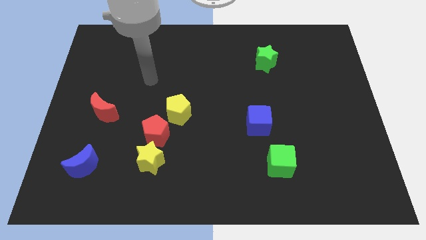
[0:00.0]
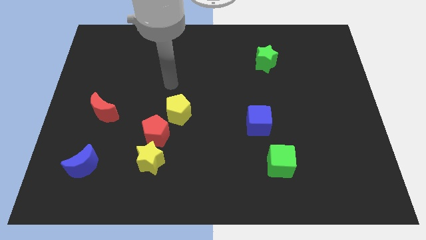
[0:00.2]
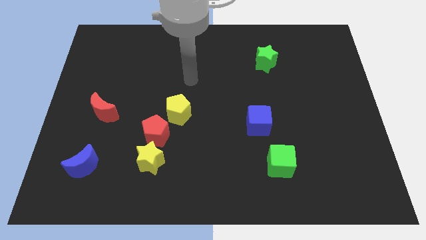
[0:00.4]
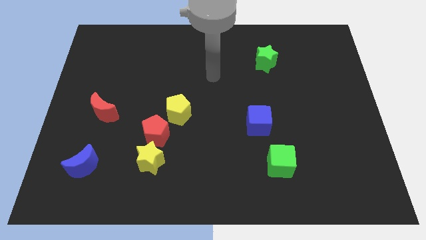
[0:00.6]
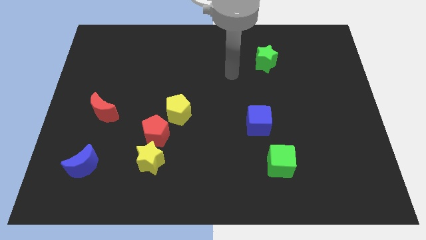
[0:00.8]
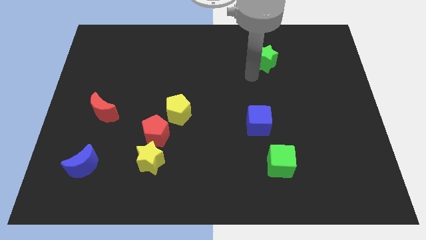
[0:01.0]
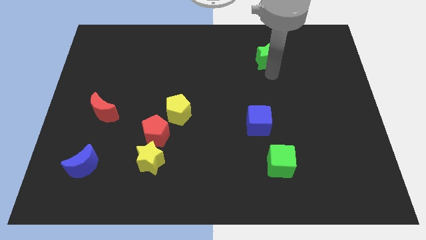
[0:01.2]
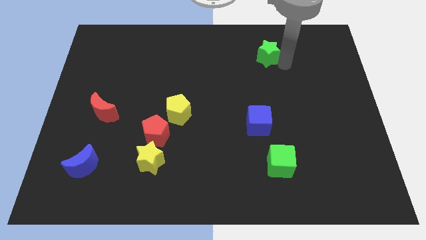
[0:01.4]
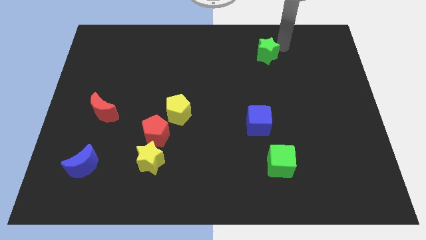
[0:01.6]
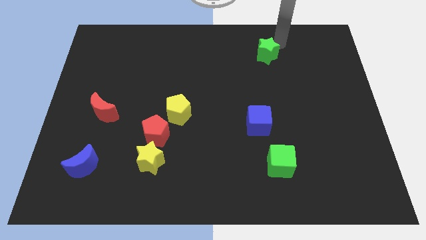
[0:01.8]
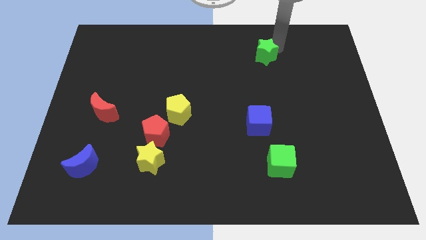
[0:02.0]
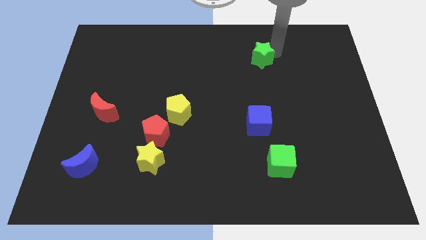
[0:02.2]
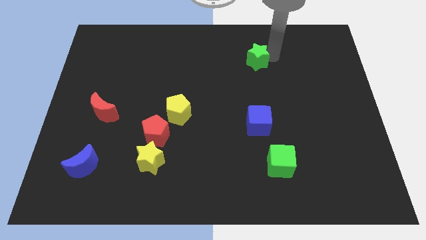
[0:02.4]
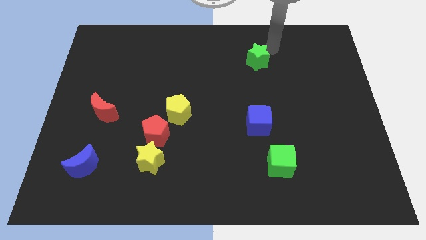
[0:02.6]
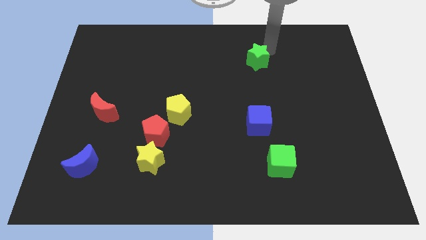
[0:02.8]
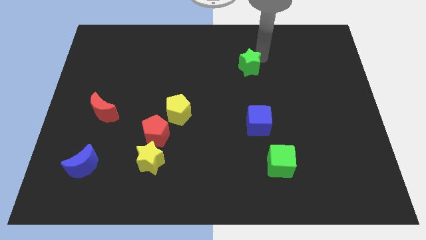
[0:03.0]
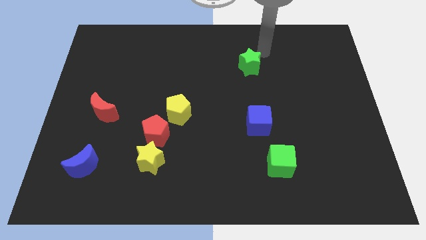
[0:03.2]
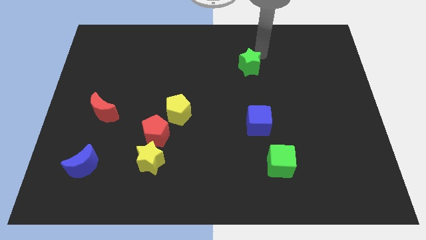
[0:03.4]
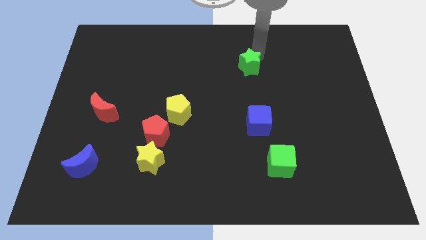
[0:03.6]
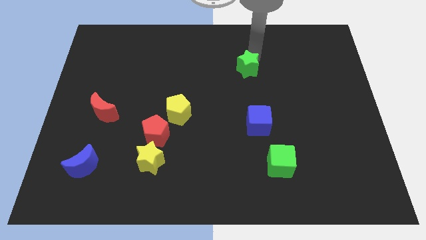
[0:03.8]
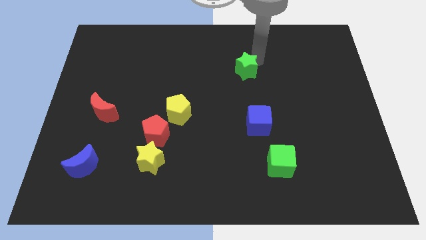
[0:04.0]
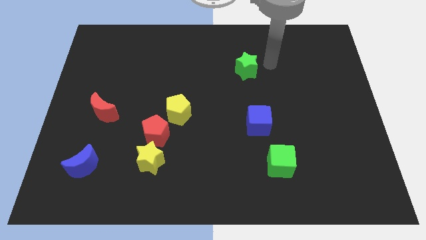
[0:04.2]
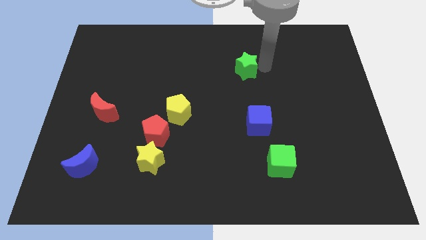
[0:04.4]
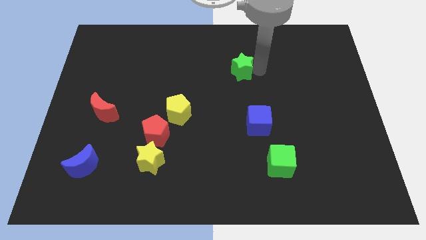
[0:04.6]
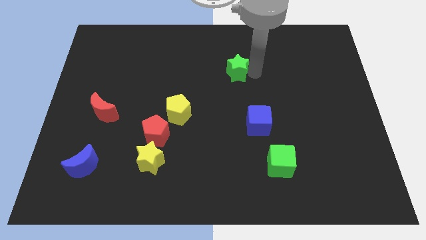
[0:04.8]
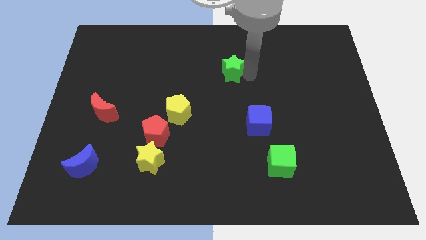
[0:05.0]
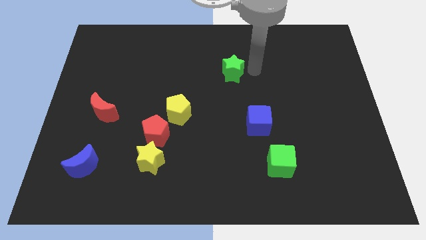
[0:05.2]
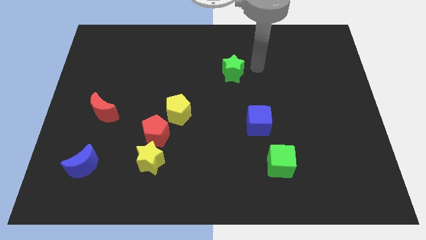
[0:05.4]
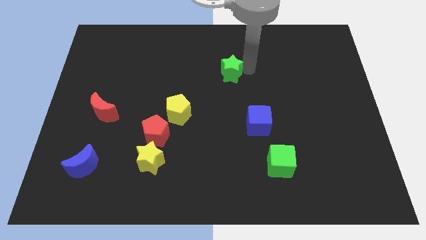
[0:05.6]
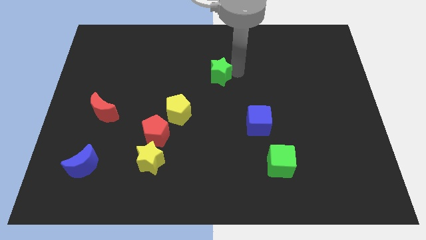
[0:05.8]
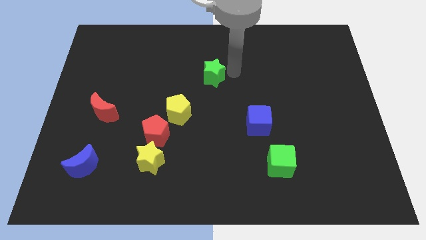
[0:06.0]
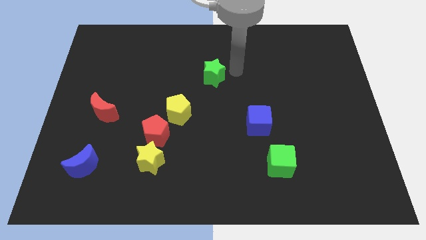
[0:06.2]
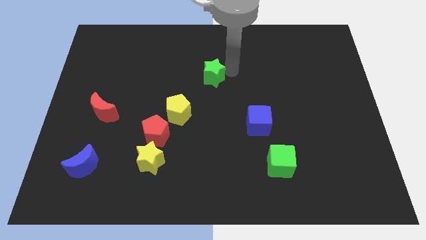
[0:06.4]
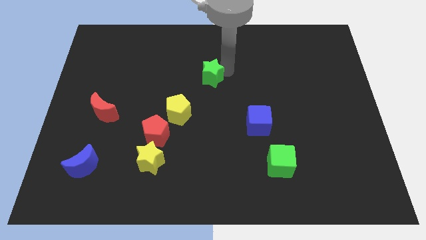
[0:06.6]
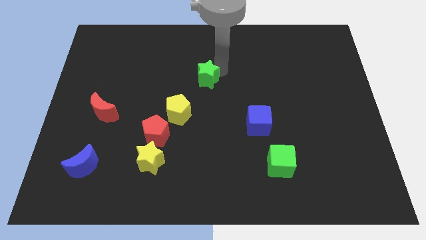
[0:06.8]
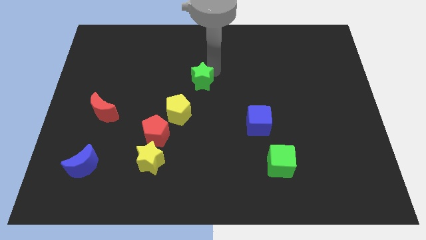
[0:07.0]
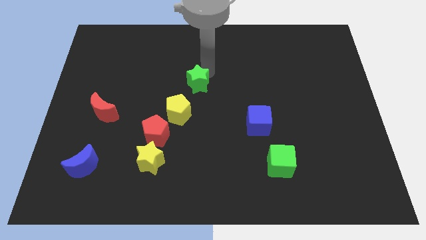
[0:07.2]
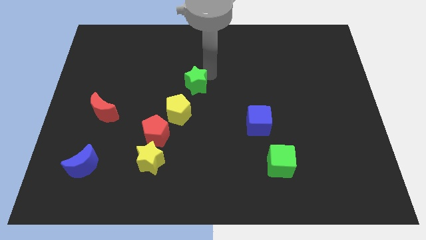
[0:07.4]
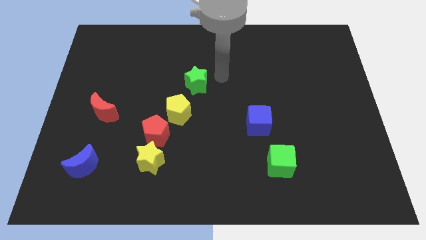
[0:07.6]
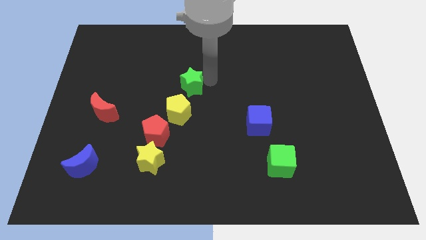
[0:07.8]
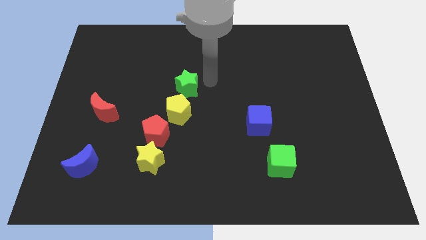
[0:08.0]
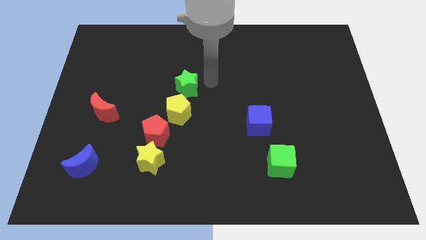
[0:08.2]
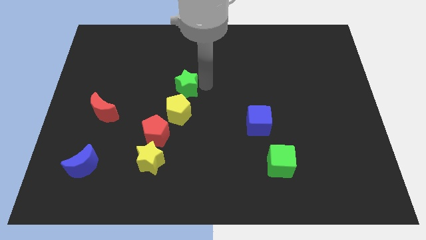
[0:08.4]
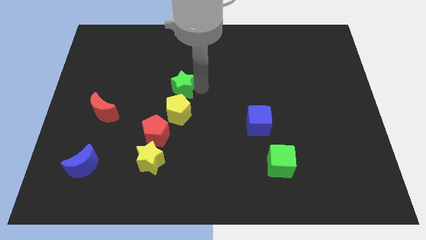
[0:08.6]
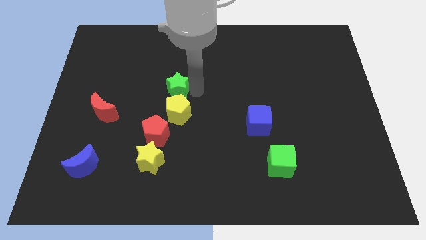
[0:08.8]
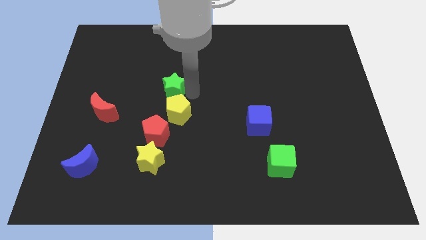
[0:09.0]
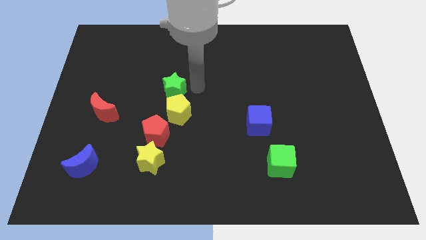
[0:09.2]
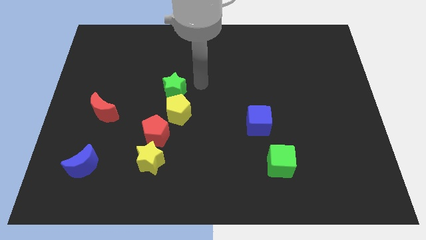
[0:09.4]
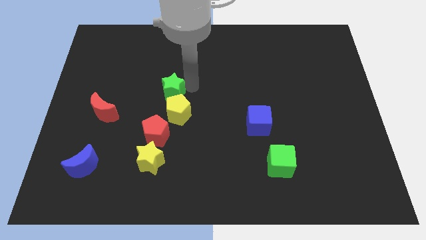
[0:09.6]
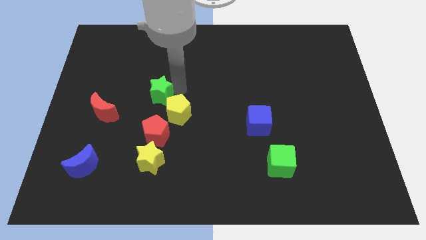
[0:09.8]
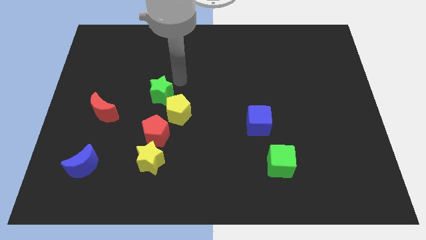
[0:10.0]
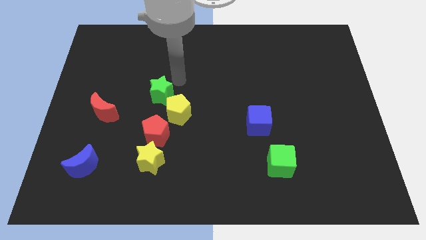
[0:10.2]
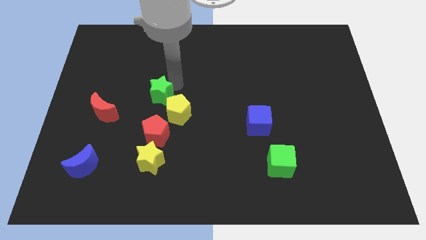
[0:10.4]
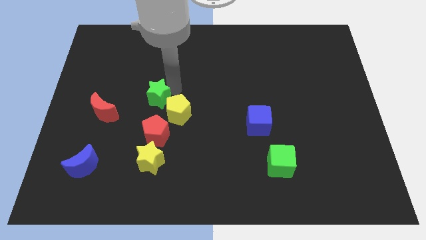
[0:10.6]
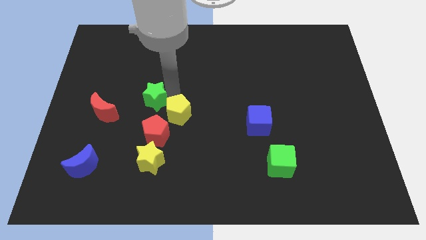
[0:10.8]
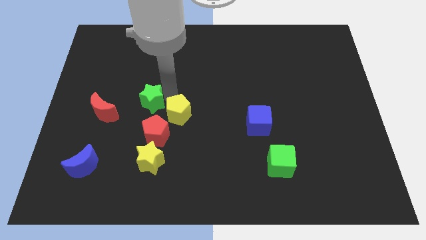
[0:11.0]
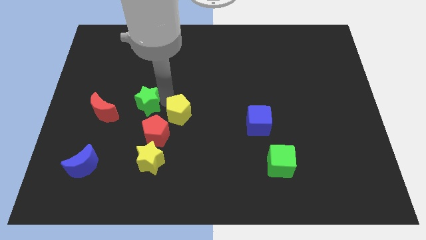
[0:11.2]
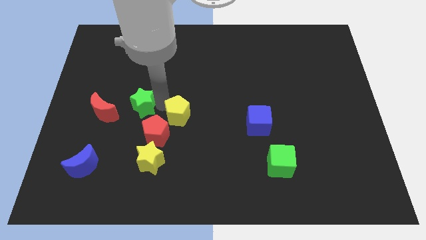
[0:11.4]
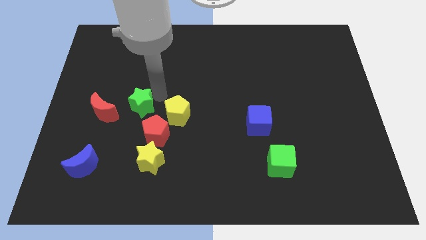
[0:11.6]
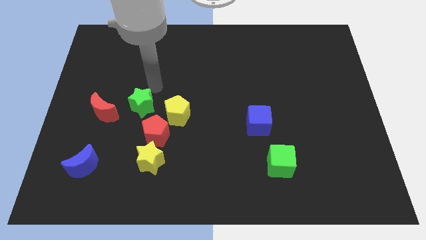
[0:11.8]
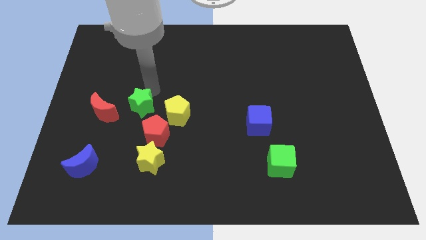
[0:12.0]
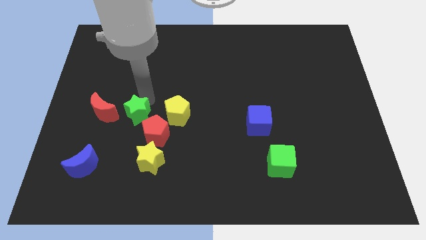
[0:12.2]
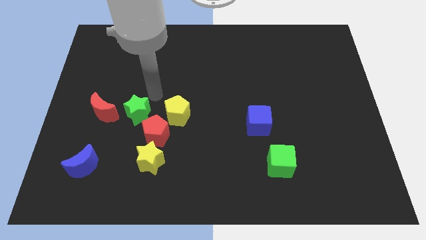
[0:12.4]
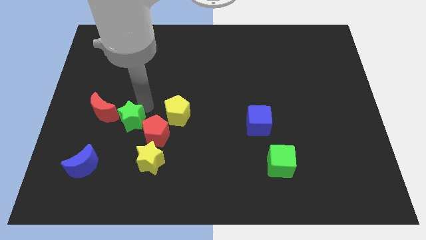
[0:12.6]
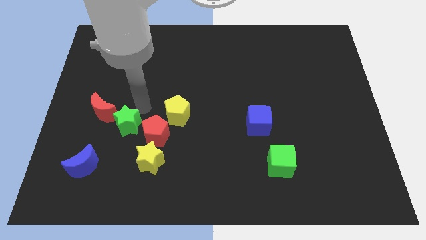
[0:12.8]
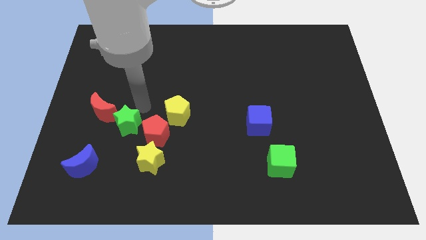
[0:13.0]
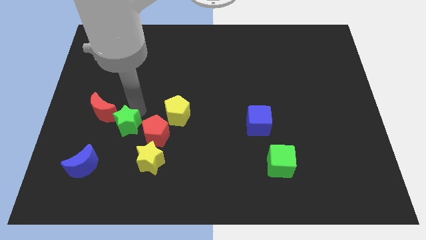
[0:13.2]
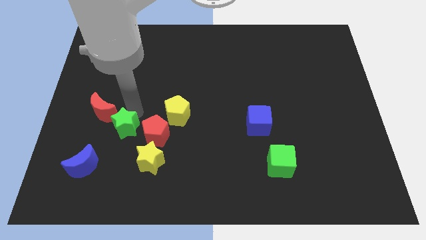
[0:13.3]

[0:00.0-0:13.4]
slide the green star to the top right side of the blue moon

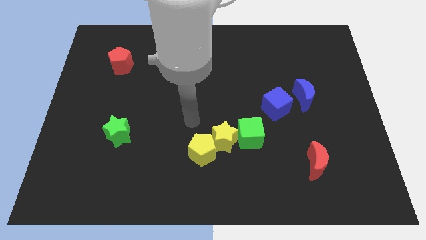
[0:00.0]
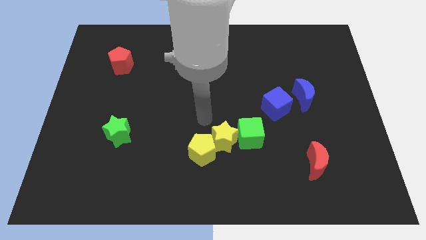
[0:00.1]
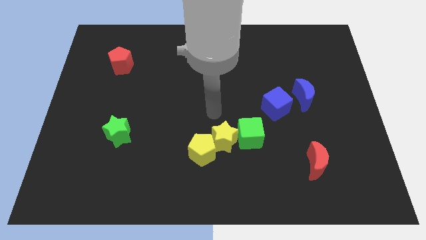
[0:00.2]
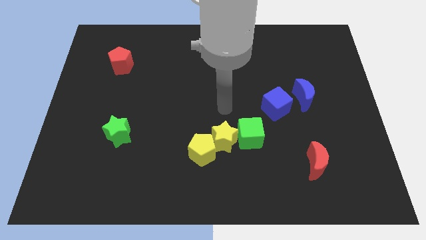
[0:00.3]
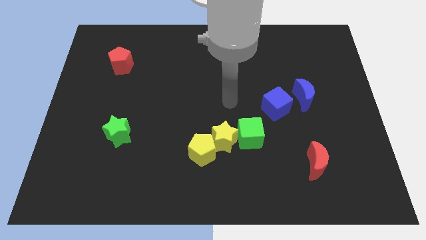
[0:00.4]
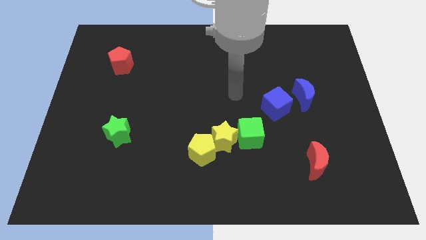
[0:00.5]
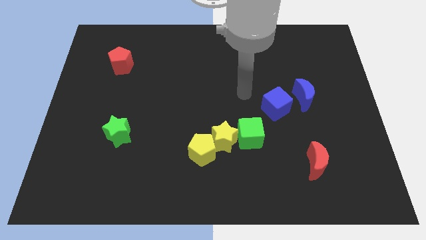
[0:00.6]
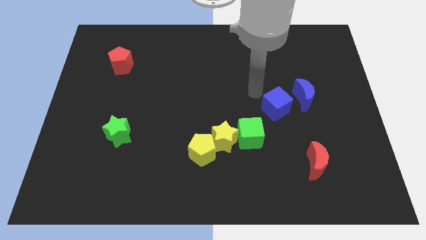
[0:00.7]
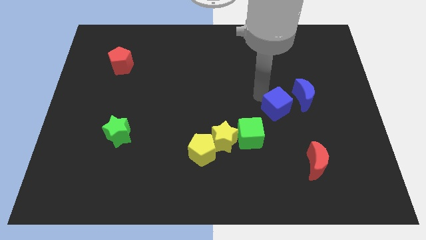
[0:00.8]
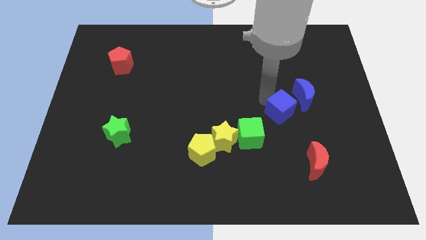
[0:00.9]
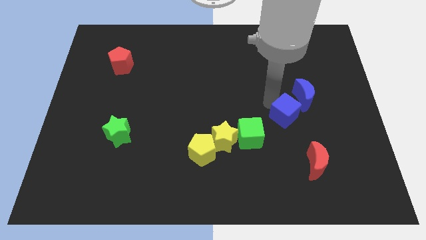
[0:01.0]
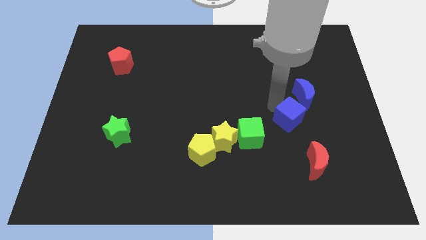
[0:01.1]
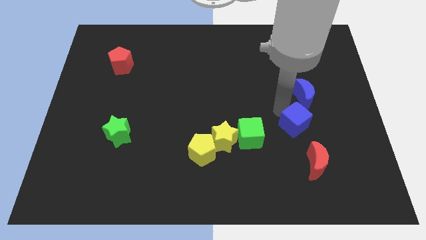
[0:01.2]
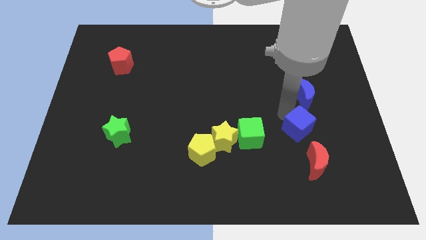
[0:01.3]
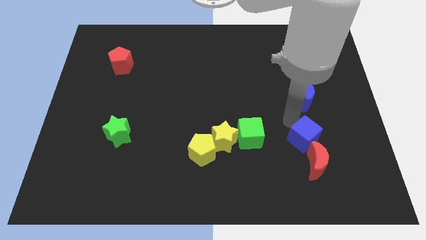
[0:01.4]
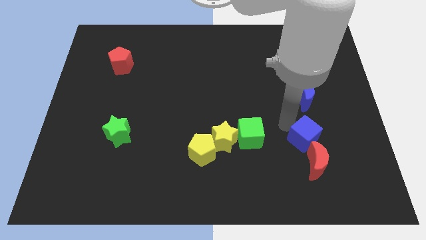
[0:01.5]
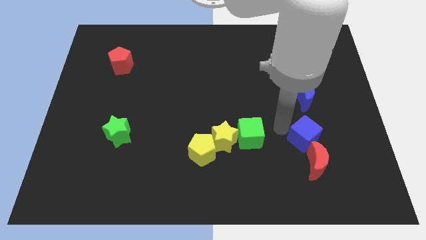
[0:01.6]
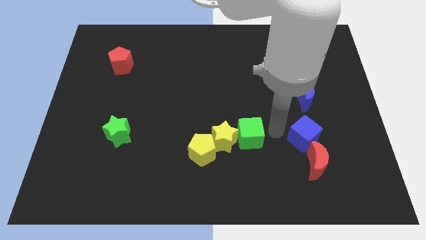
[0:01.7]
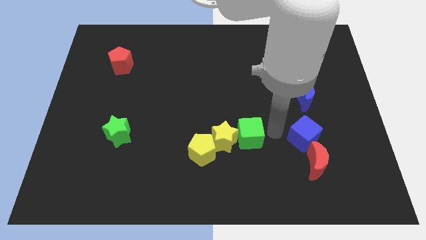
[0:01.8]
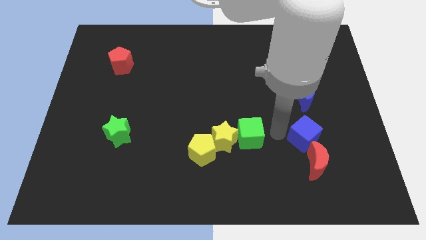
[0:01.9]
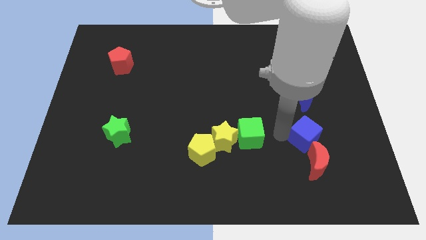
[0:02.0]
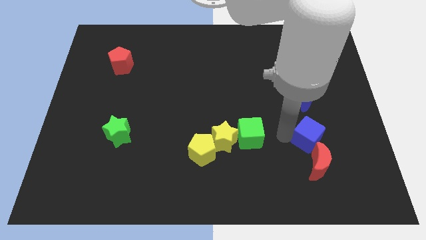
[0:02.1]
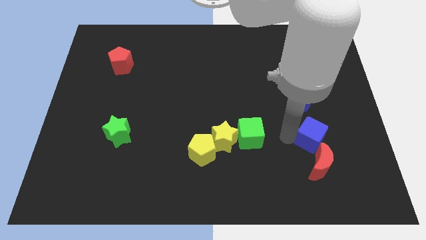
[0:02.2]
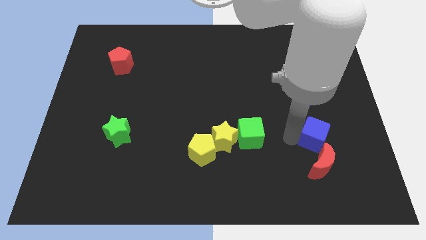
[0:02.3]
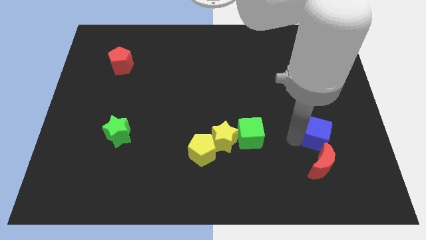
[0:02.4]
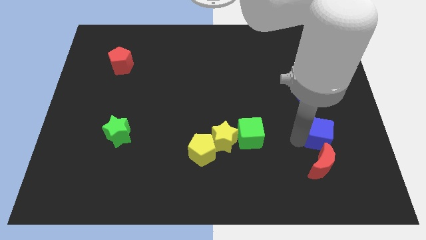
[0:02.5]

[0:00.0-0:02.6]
slide the blue cube diagonally up and to the right of the red moon
